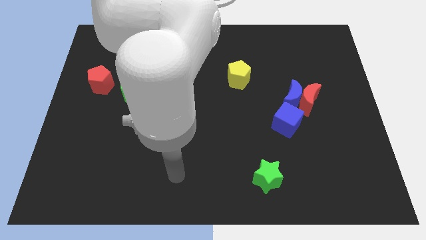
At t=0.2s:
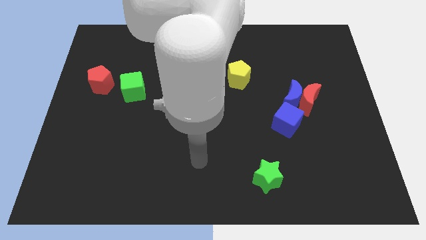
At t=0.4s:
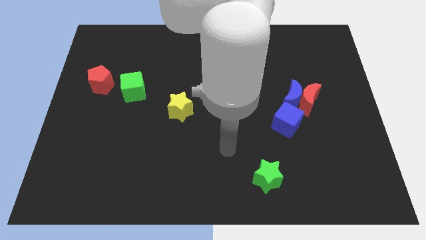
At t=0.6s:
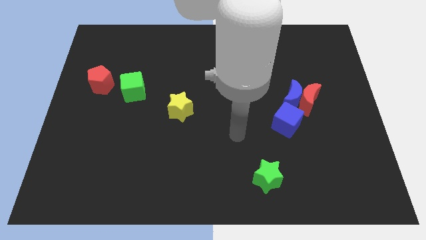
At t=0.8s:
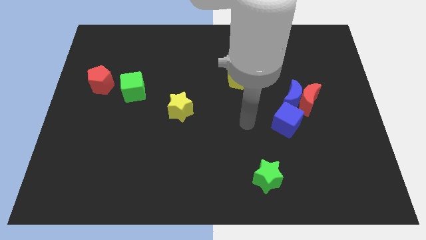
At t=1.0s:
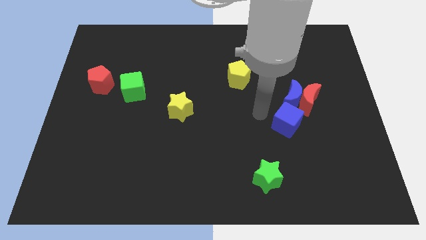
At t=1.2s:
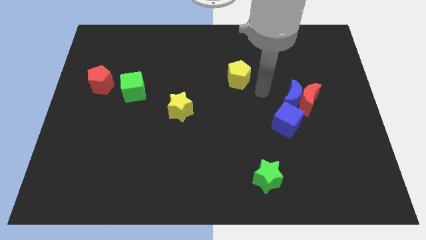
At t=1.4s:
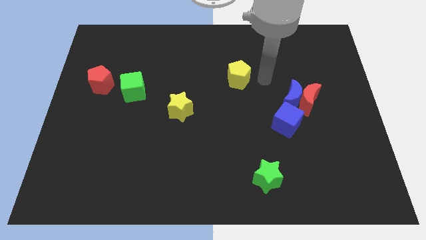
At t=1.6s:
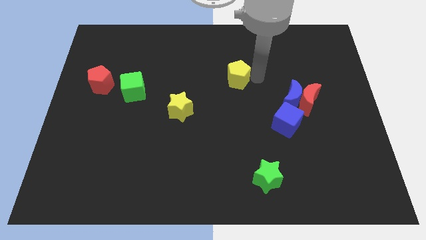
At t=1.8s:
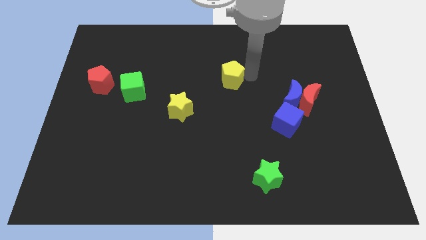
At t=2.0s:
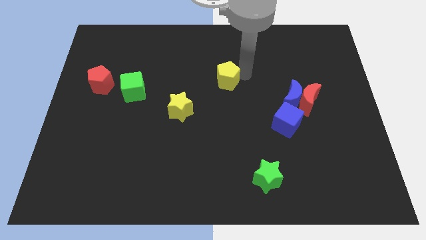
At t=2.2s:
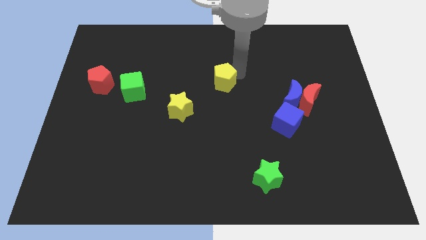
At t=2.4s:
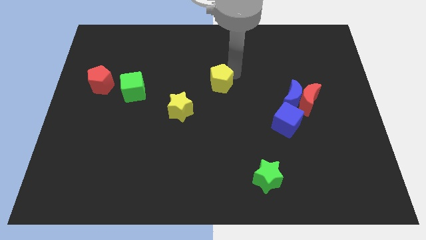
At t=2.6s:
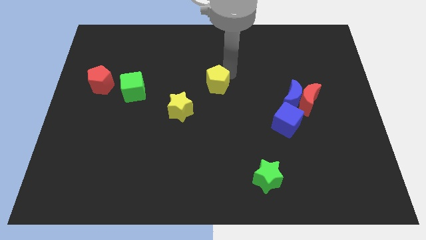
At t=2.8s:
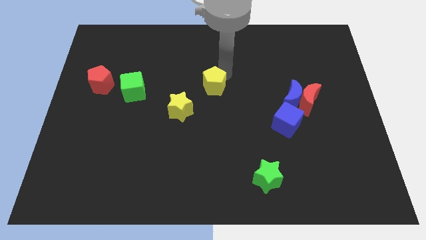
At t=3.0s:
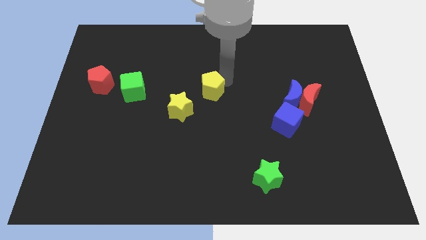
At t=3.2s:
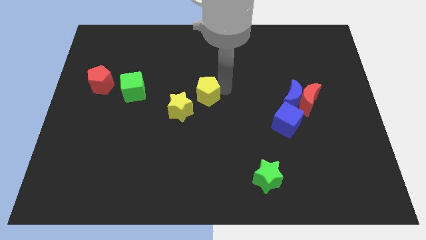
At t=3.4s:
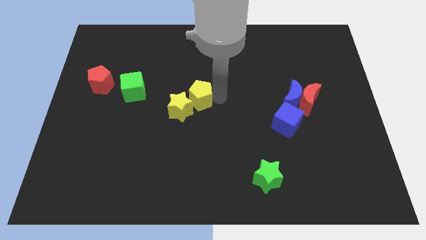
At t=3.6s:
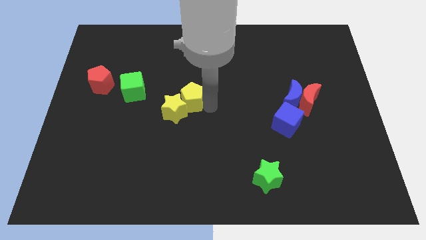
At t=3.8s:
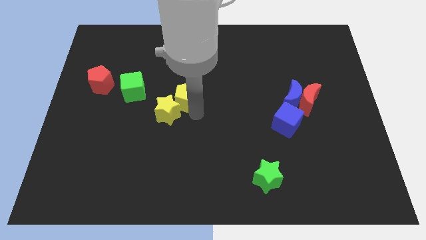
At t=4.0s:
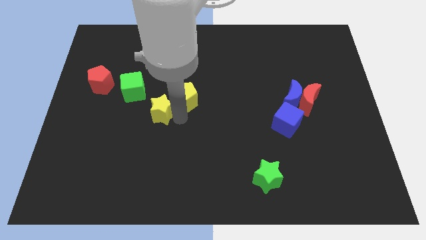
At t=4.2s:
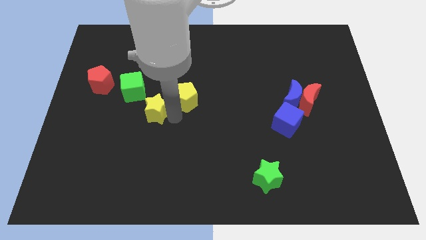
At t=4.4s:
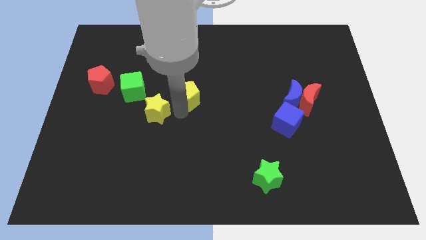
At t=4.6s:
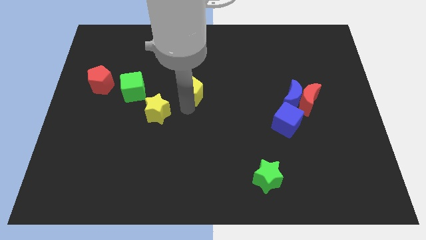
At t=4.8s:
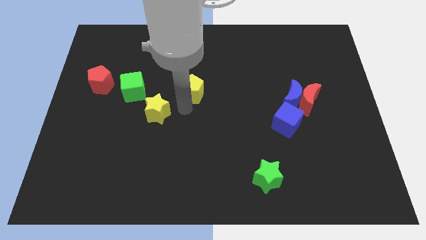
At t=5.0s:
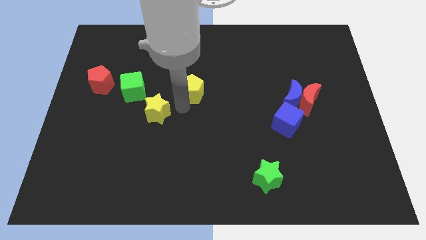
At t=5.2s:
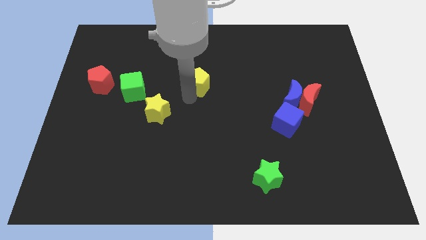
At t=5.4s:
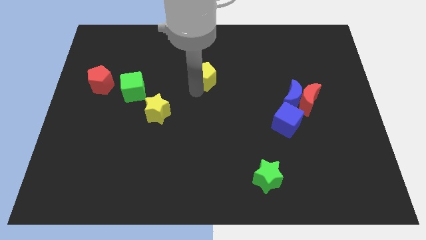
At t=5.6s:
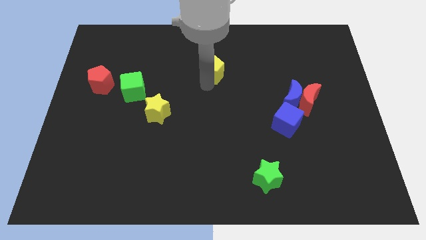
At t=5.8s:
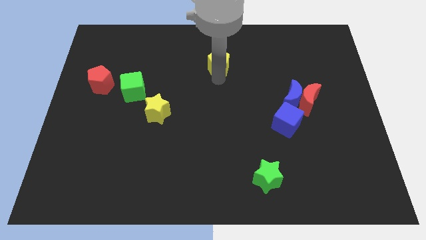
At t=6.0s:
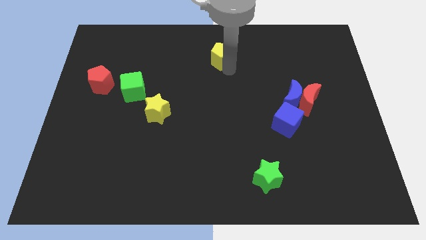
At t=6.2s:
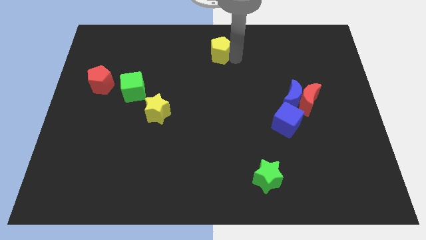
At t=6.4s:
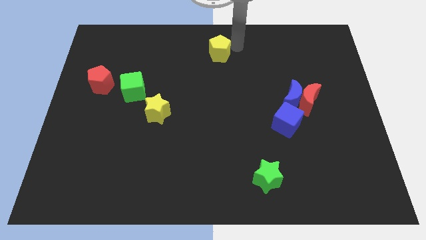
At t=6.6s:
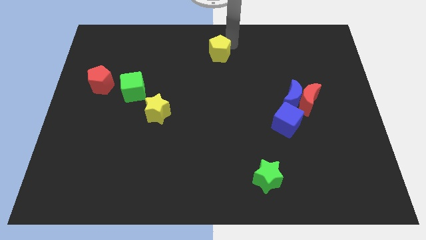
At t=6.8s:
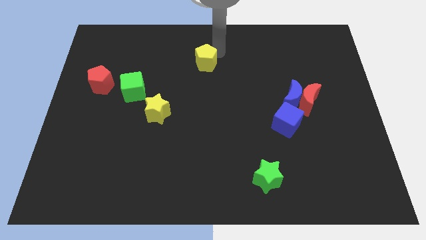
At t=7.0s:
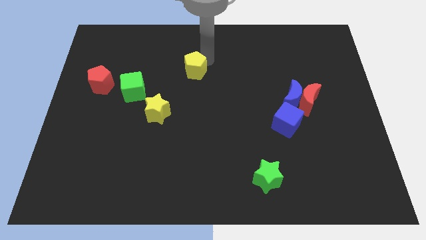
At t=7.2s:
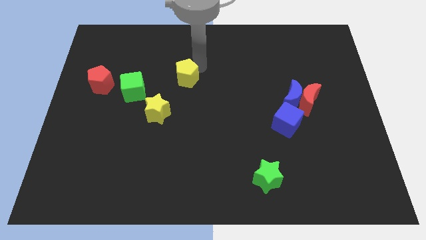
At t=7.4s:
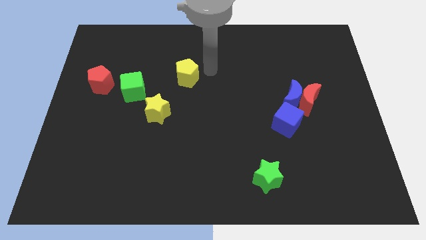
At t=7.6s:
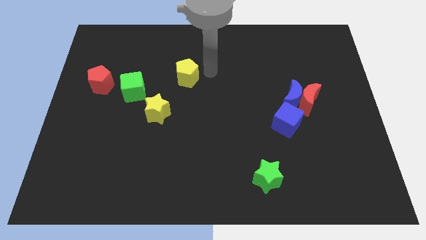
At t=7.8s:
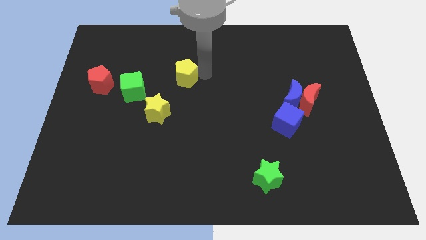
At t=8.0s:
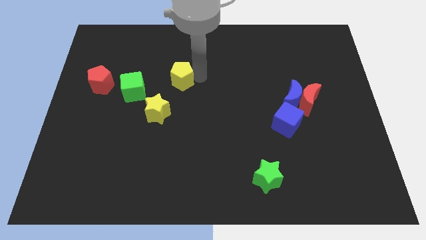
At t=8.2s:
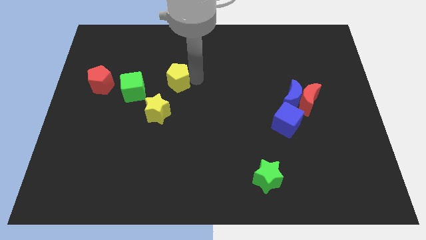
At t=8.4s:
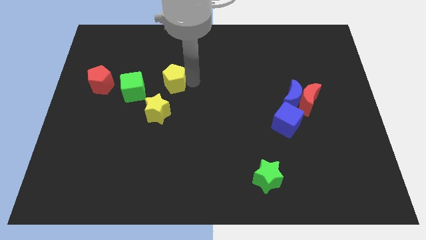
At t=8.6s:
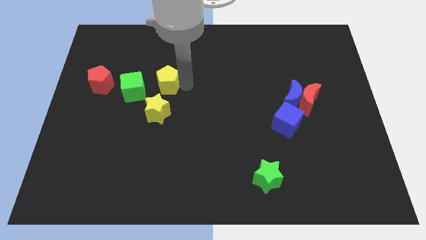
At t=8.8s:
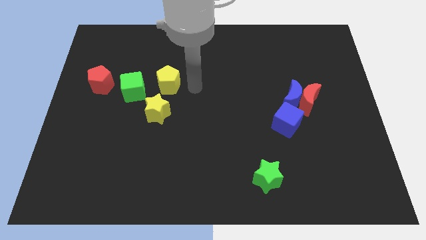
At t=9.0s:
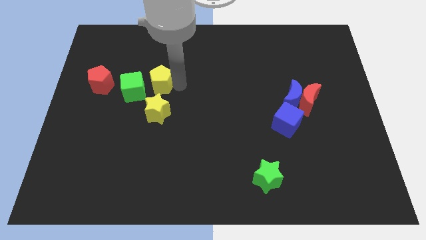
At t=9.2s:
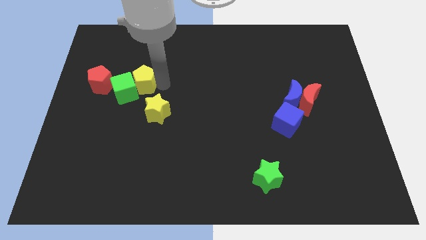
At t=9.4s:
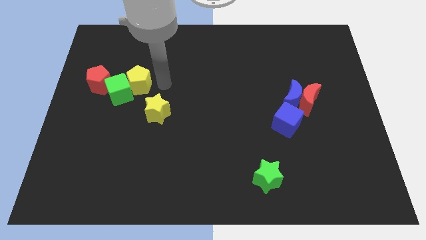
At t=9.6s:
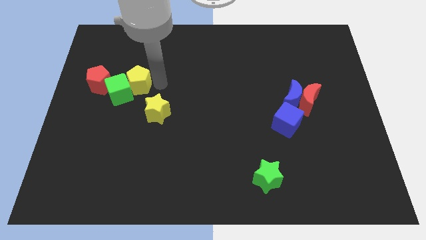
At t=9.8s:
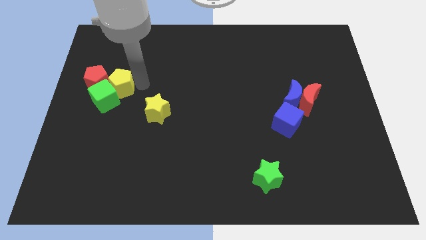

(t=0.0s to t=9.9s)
slide the yellow pentagon to the red pentagon

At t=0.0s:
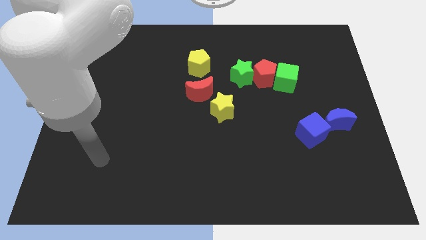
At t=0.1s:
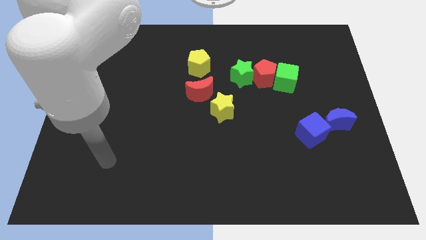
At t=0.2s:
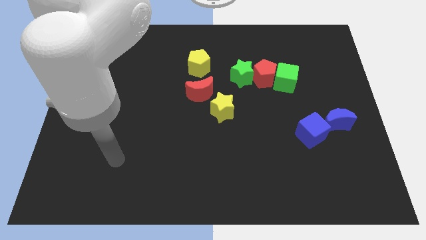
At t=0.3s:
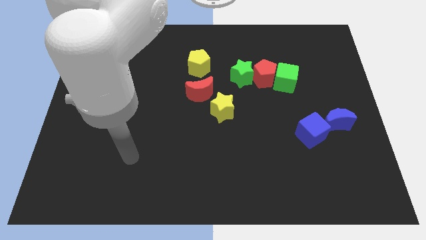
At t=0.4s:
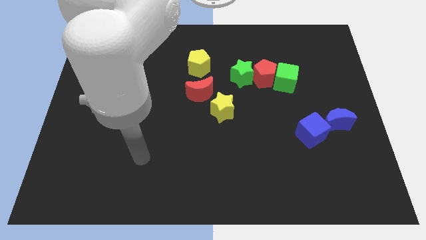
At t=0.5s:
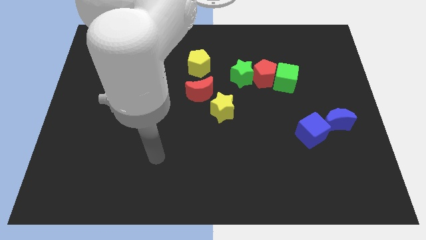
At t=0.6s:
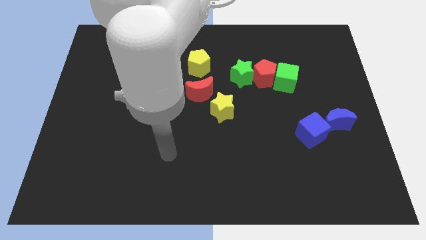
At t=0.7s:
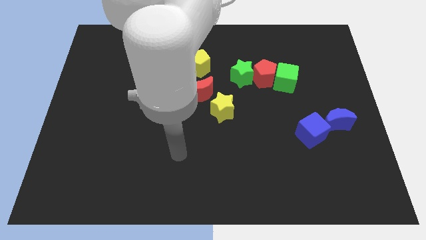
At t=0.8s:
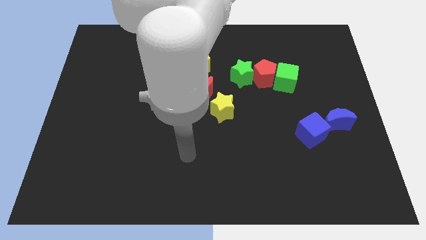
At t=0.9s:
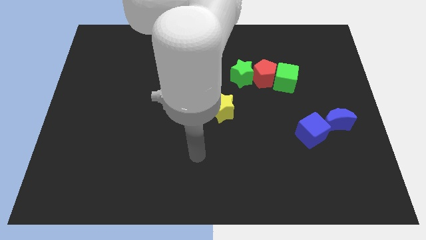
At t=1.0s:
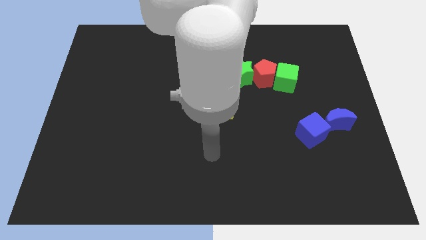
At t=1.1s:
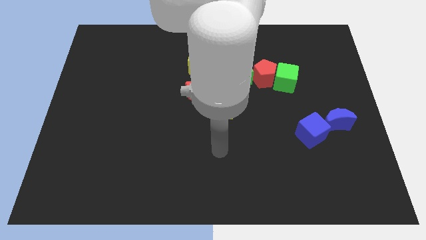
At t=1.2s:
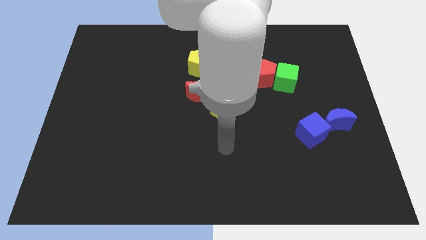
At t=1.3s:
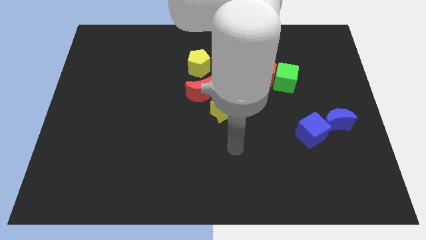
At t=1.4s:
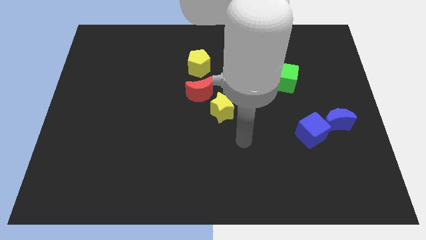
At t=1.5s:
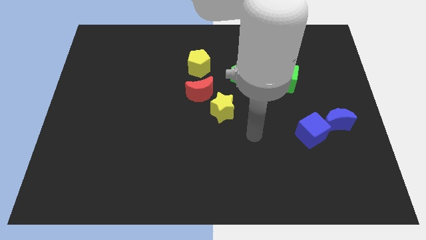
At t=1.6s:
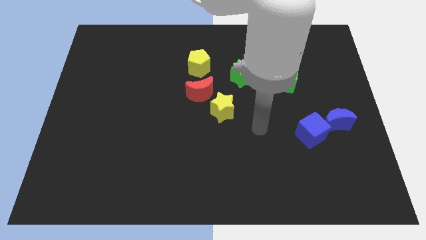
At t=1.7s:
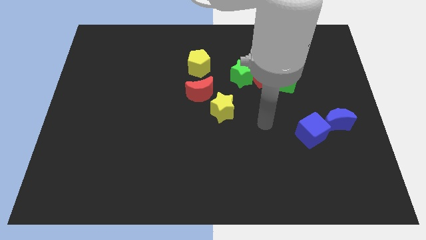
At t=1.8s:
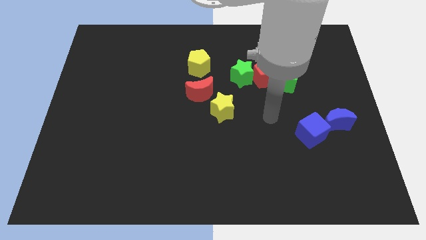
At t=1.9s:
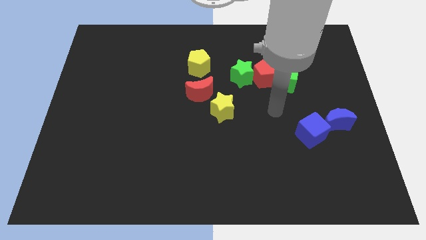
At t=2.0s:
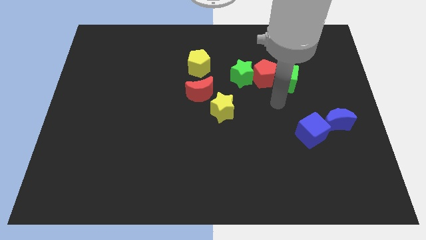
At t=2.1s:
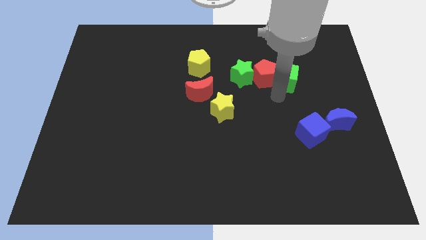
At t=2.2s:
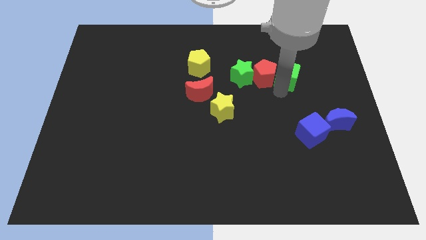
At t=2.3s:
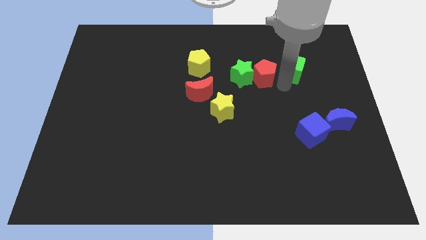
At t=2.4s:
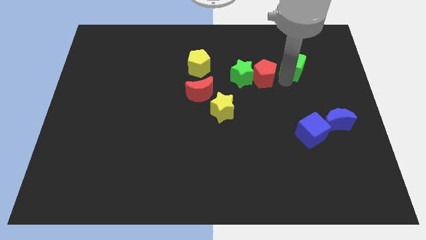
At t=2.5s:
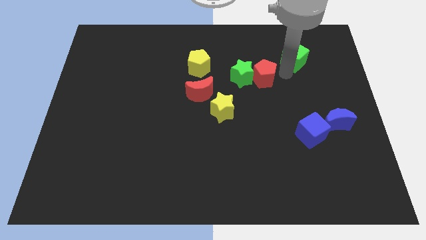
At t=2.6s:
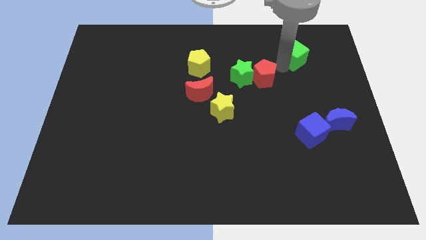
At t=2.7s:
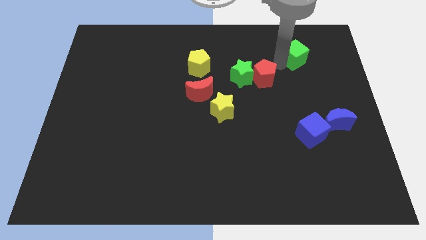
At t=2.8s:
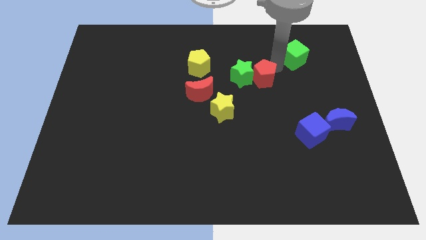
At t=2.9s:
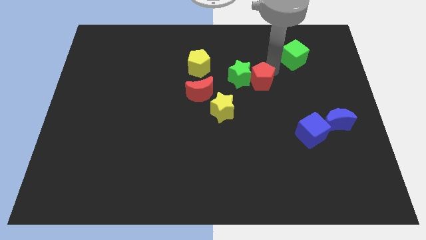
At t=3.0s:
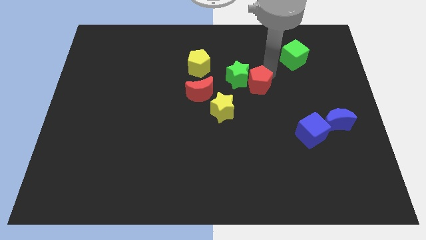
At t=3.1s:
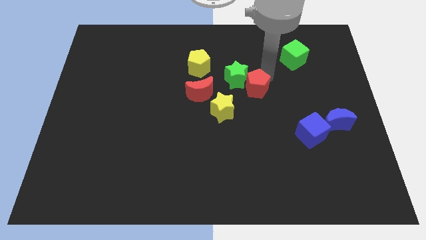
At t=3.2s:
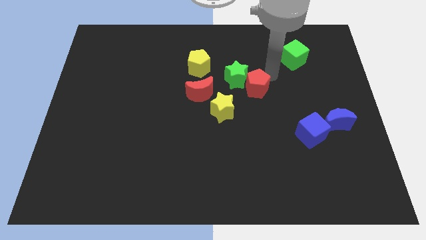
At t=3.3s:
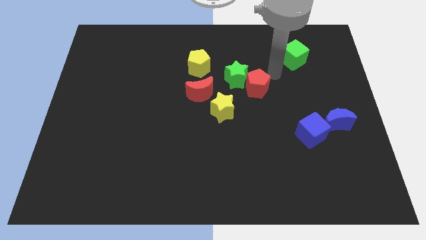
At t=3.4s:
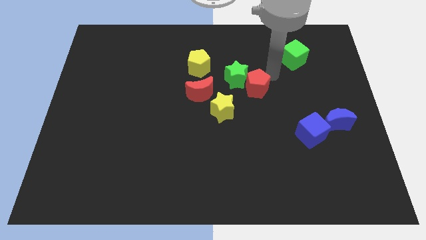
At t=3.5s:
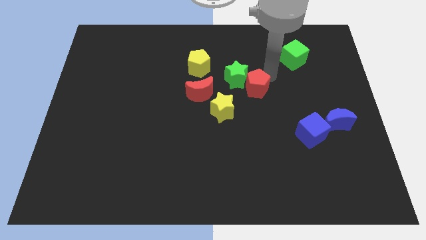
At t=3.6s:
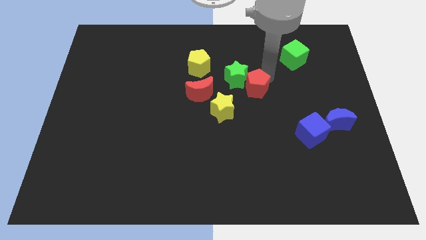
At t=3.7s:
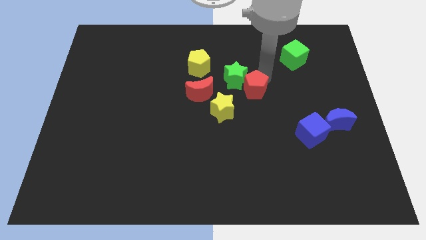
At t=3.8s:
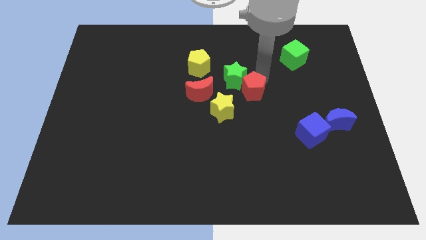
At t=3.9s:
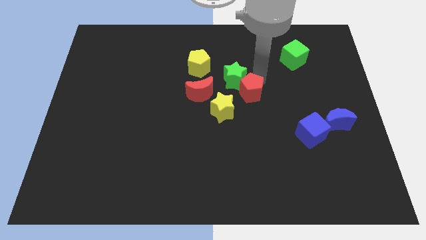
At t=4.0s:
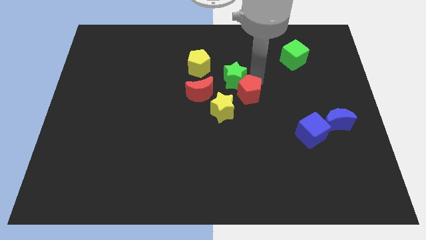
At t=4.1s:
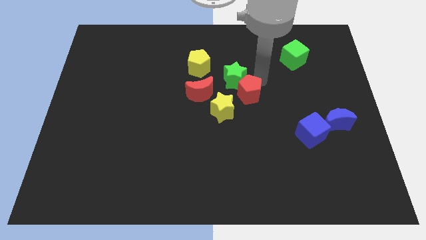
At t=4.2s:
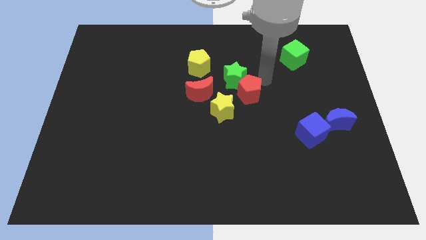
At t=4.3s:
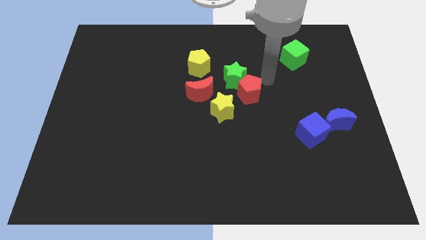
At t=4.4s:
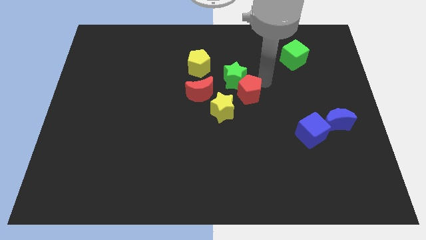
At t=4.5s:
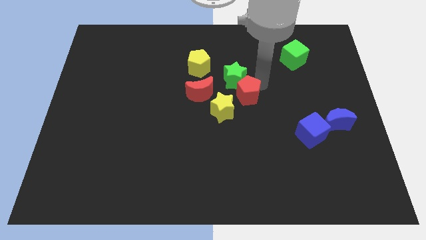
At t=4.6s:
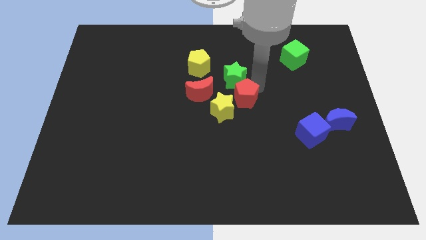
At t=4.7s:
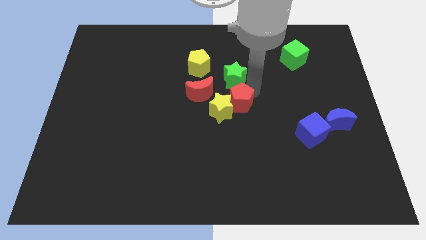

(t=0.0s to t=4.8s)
put the red pentagon close to the yellow star
